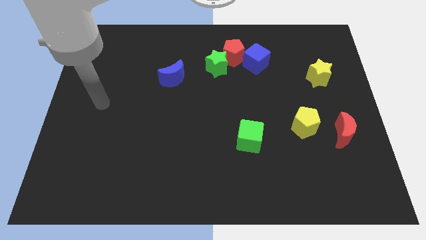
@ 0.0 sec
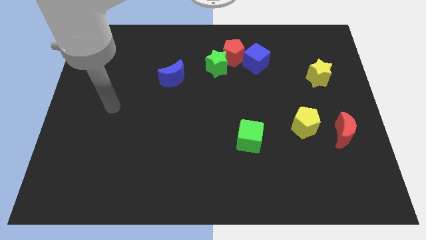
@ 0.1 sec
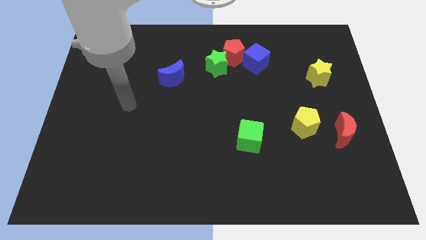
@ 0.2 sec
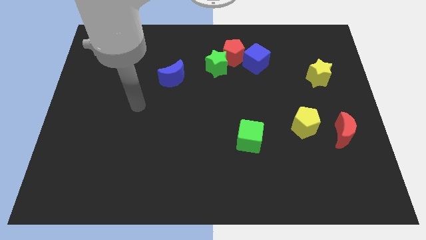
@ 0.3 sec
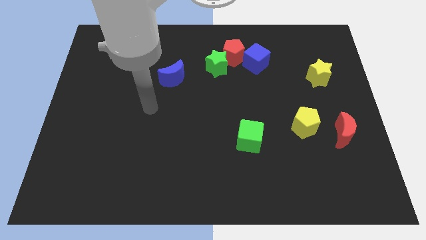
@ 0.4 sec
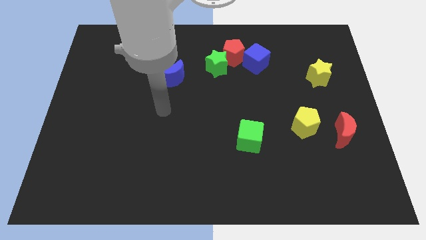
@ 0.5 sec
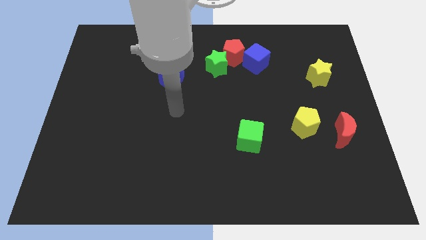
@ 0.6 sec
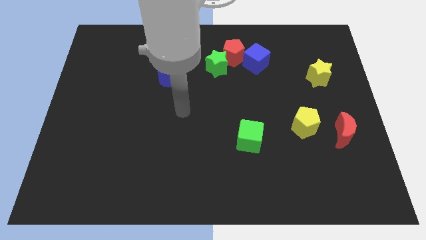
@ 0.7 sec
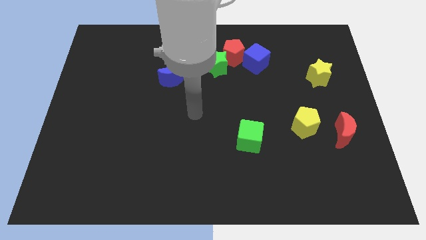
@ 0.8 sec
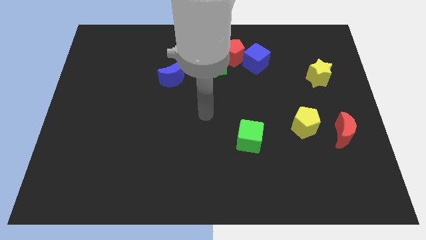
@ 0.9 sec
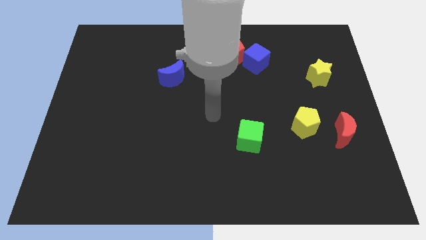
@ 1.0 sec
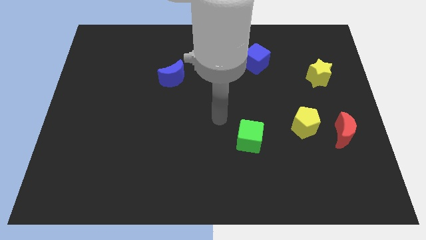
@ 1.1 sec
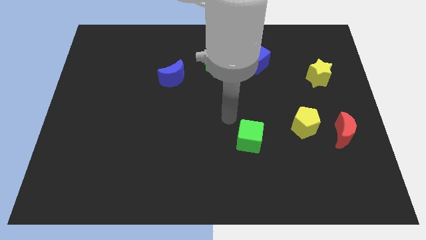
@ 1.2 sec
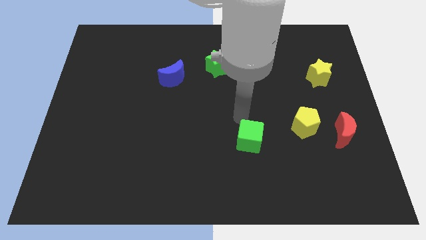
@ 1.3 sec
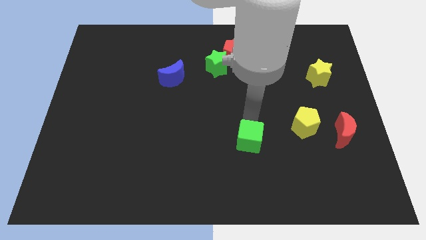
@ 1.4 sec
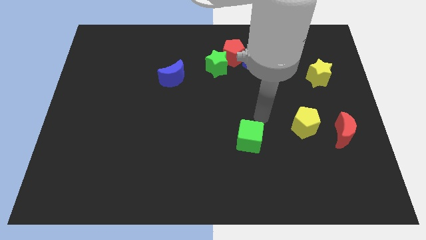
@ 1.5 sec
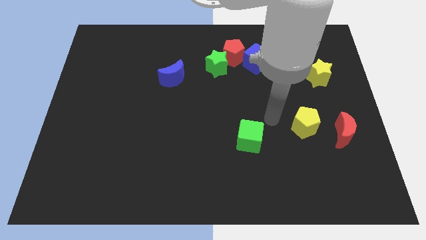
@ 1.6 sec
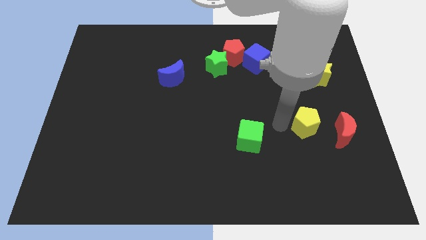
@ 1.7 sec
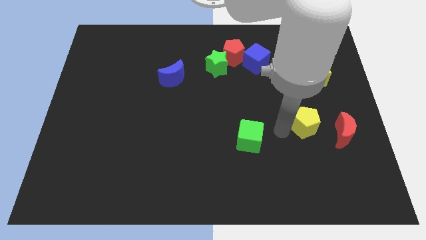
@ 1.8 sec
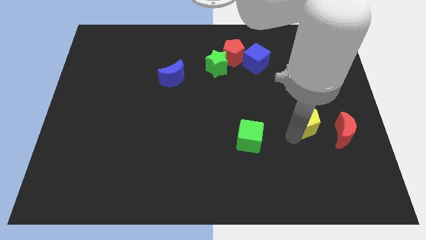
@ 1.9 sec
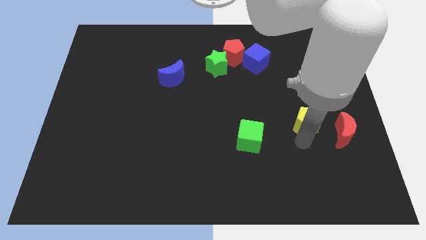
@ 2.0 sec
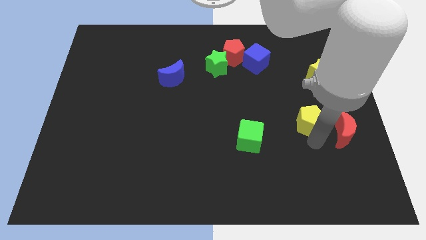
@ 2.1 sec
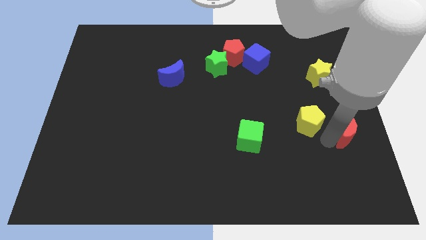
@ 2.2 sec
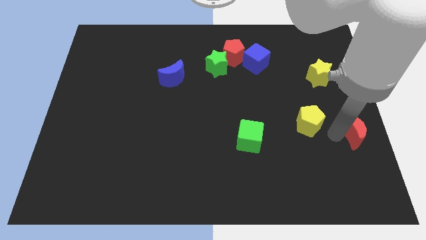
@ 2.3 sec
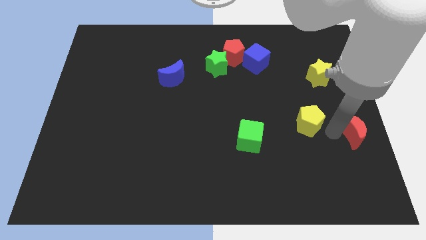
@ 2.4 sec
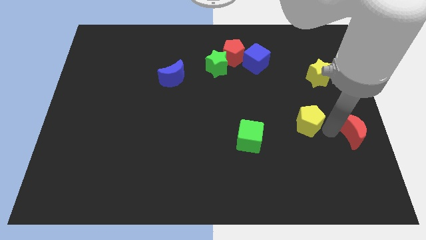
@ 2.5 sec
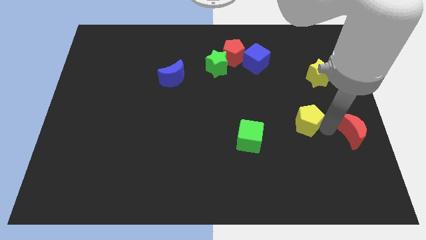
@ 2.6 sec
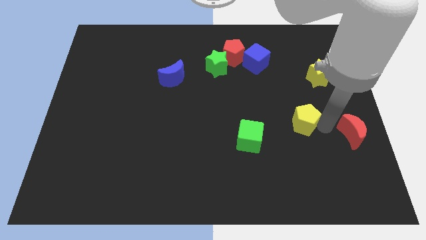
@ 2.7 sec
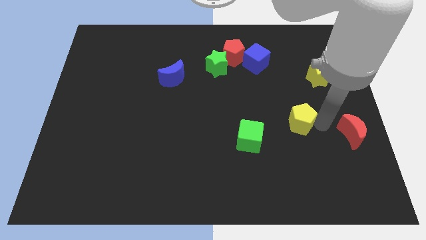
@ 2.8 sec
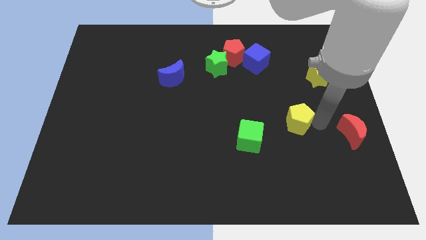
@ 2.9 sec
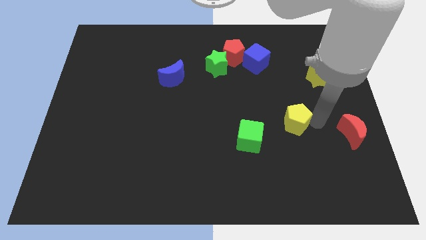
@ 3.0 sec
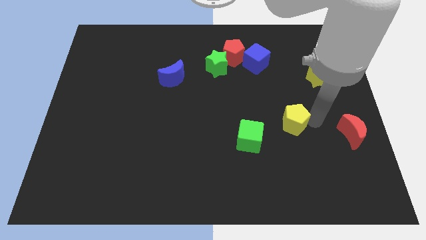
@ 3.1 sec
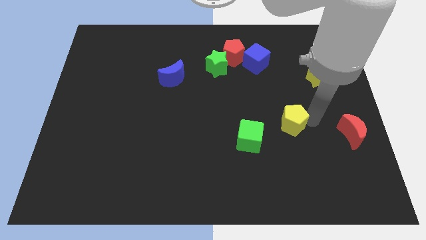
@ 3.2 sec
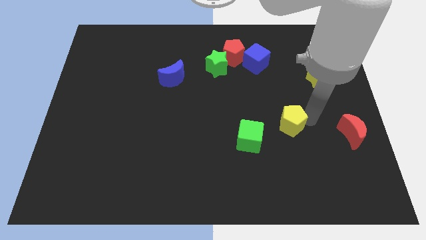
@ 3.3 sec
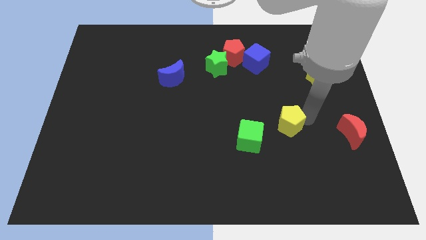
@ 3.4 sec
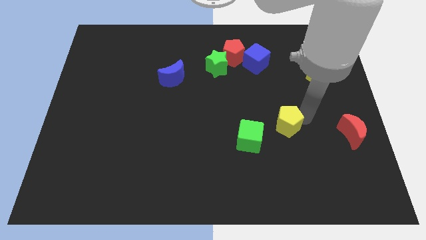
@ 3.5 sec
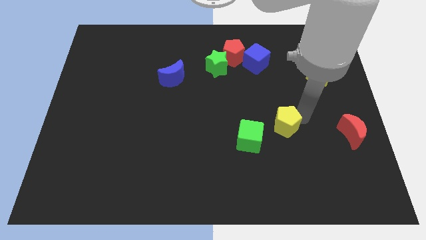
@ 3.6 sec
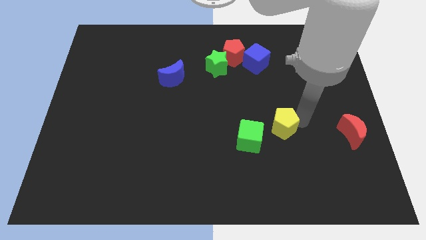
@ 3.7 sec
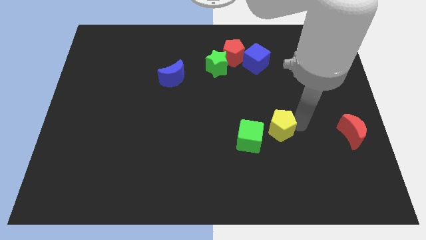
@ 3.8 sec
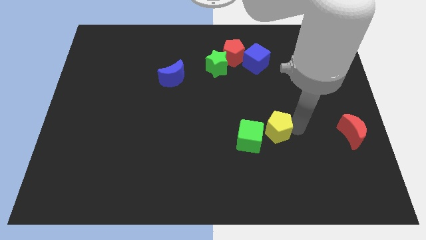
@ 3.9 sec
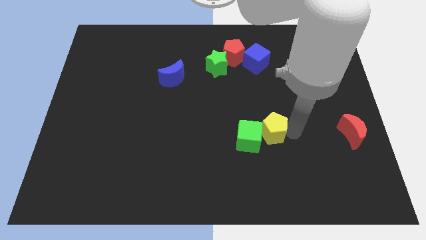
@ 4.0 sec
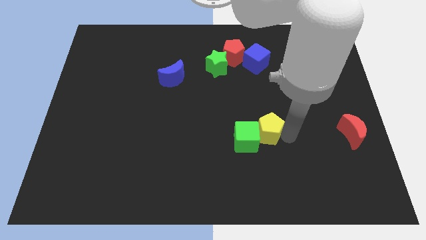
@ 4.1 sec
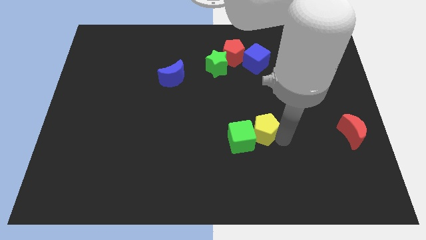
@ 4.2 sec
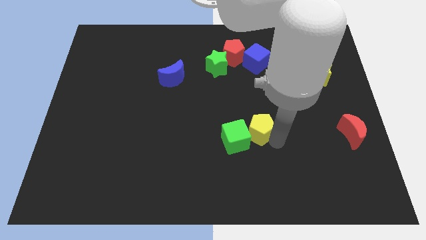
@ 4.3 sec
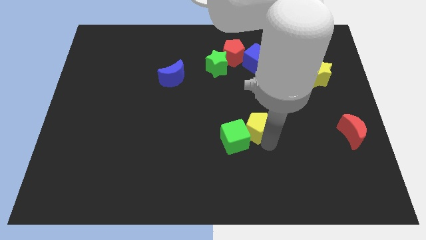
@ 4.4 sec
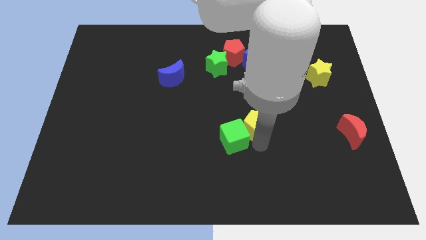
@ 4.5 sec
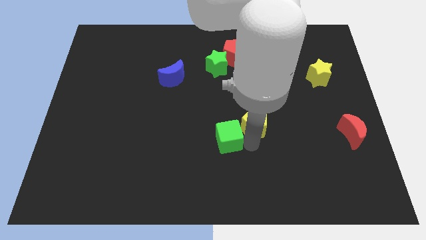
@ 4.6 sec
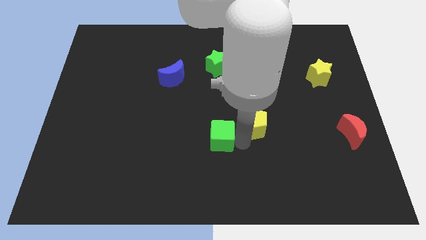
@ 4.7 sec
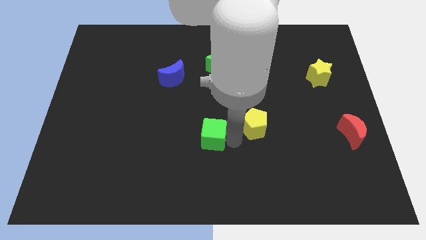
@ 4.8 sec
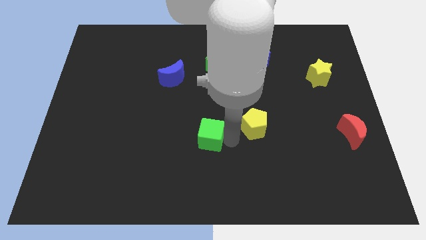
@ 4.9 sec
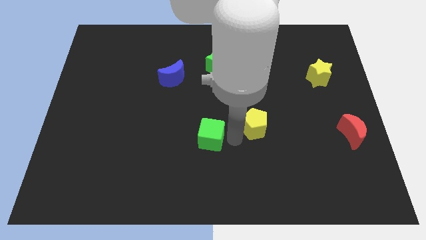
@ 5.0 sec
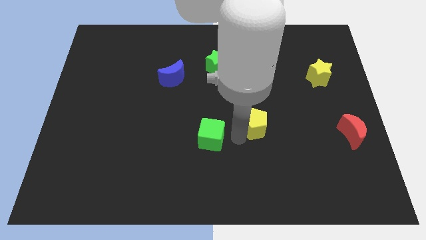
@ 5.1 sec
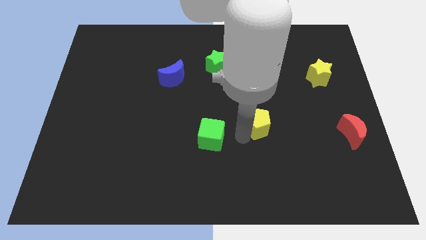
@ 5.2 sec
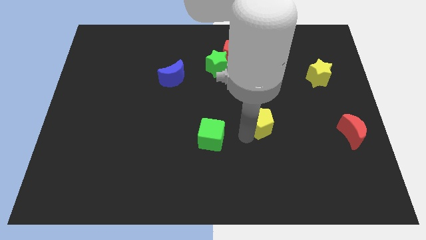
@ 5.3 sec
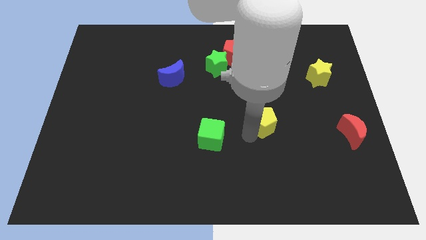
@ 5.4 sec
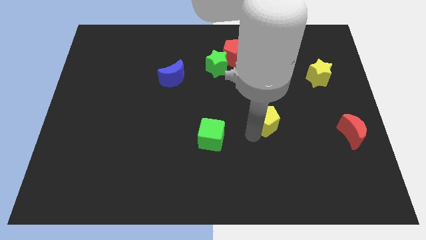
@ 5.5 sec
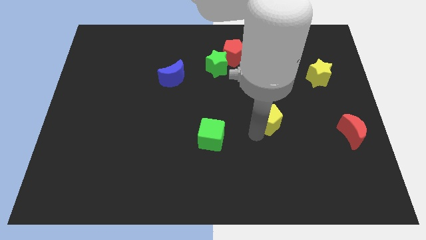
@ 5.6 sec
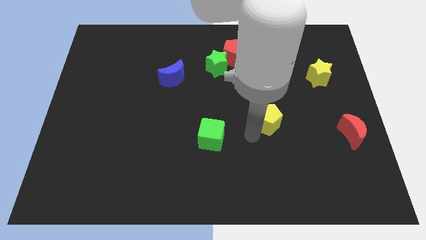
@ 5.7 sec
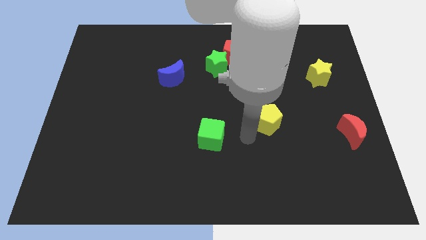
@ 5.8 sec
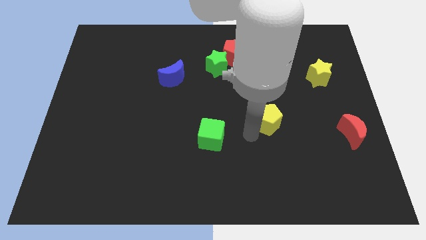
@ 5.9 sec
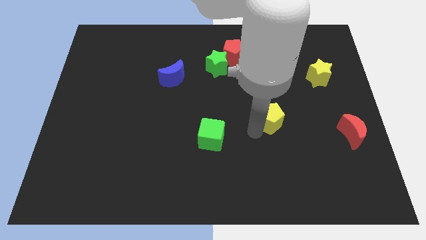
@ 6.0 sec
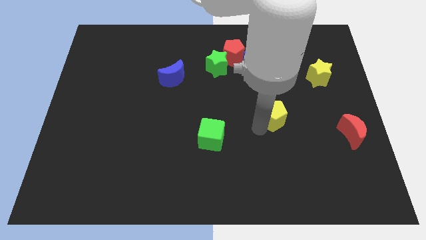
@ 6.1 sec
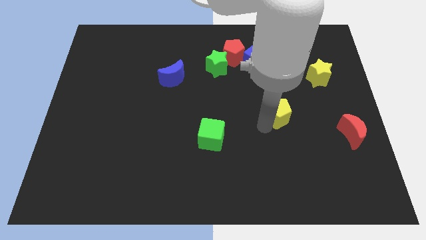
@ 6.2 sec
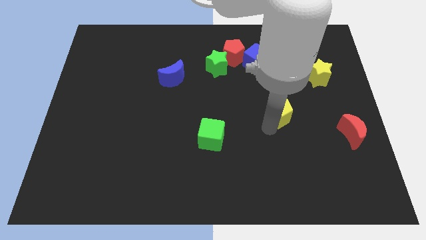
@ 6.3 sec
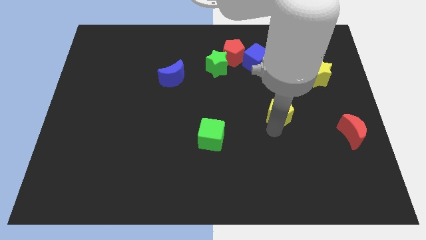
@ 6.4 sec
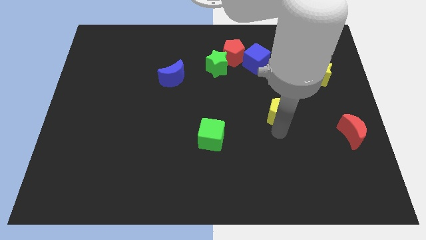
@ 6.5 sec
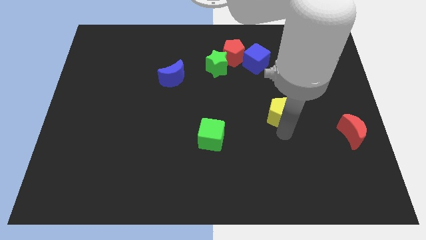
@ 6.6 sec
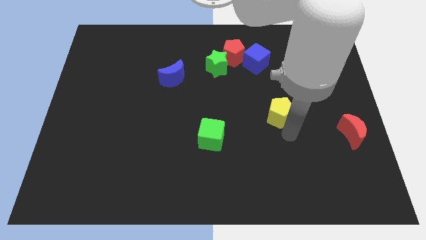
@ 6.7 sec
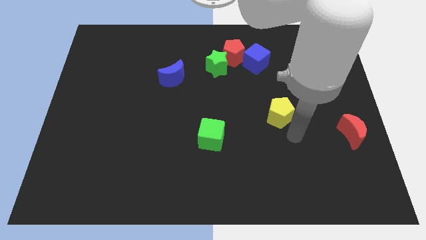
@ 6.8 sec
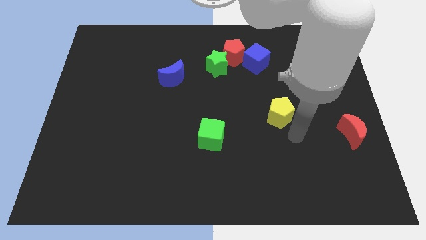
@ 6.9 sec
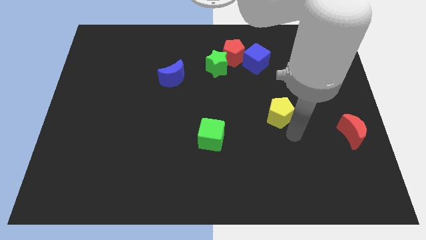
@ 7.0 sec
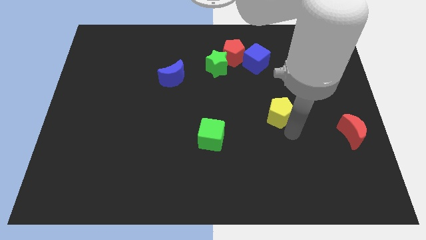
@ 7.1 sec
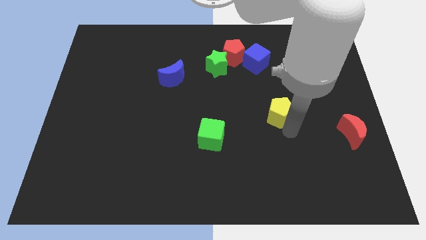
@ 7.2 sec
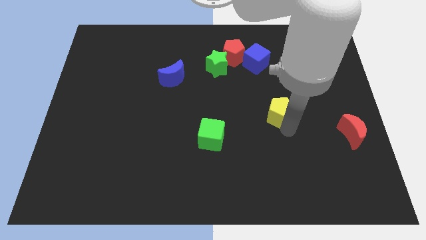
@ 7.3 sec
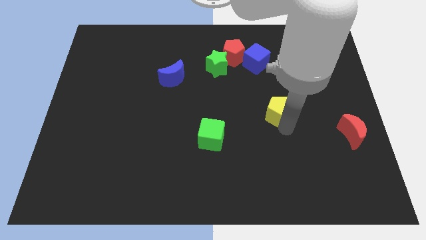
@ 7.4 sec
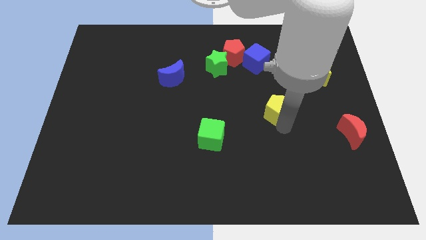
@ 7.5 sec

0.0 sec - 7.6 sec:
slightly push the yellow pentagon diagonally up and left

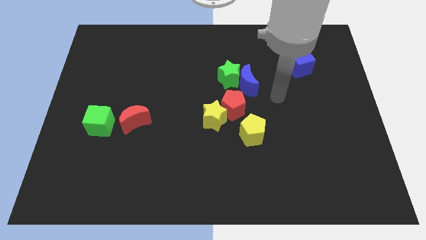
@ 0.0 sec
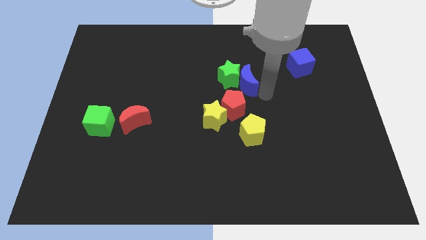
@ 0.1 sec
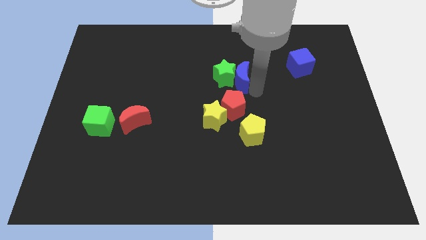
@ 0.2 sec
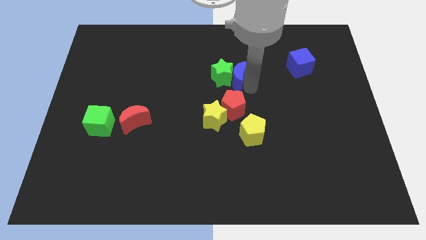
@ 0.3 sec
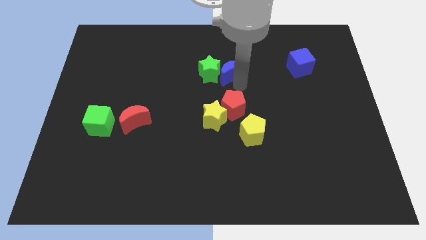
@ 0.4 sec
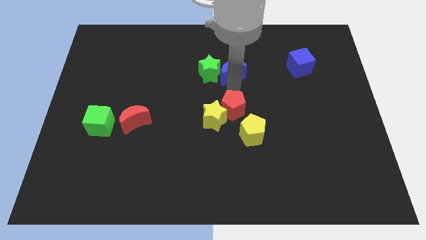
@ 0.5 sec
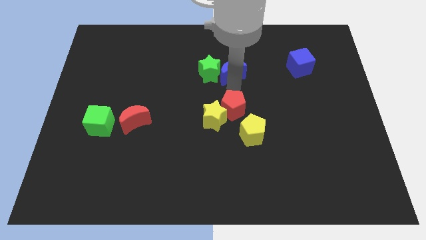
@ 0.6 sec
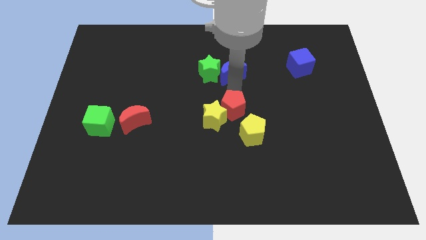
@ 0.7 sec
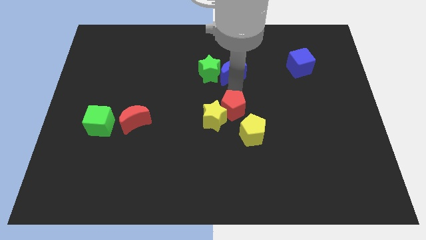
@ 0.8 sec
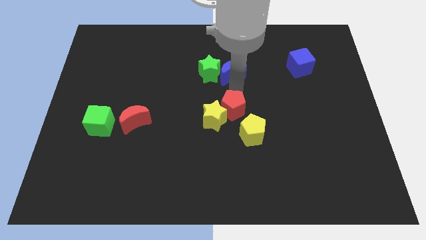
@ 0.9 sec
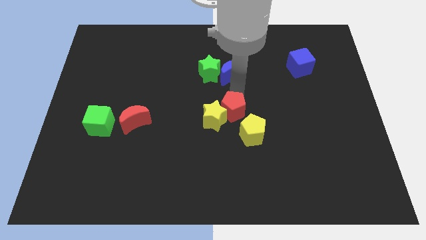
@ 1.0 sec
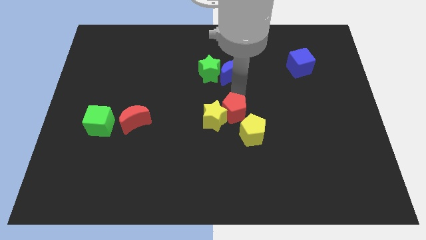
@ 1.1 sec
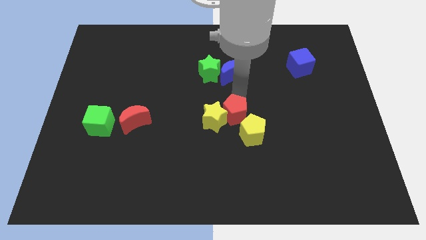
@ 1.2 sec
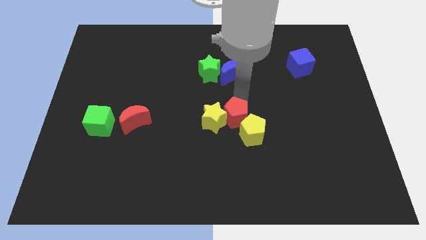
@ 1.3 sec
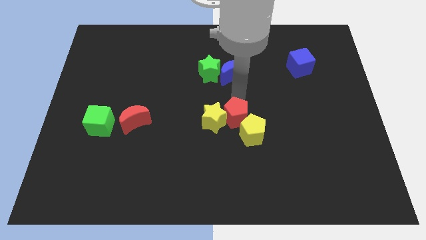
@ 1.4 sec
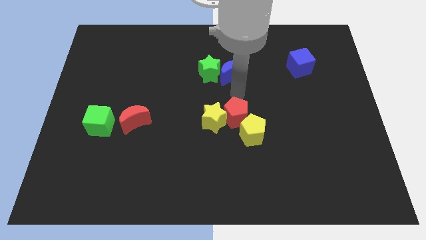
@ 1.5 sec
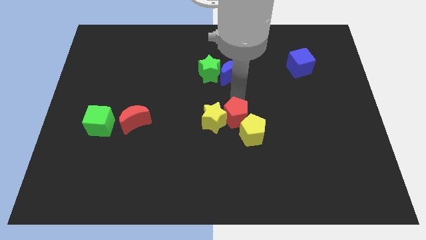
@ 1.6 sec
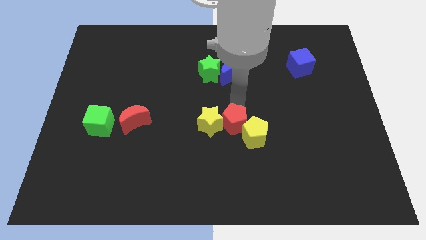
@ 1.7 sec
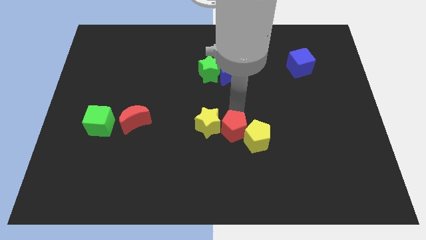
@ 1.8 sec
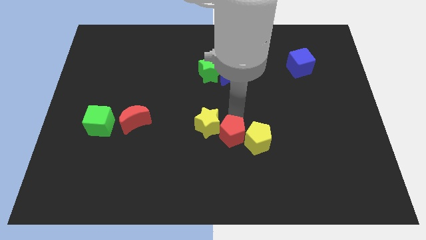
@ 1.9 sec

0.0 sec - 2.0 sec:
slightly move the red pentagon downwards
